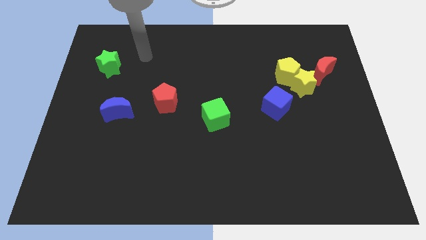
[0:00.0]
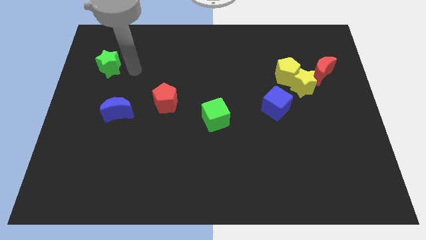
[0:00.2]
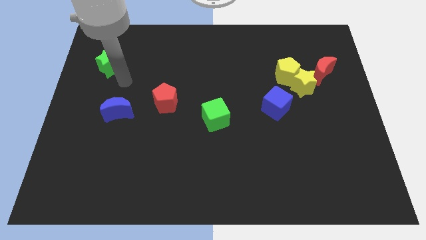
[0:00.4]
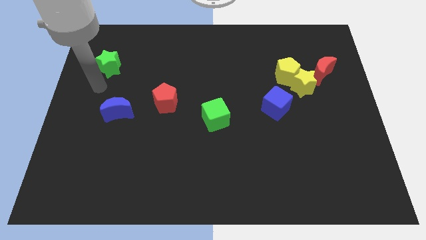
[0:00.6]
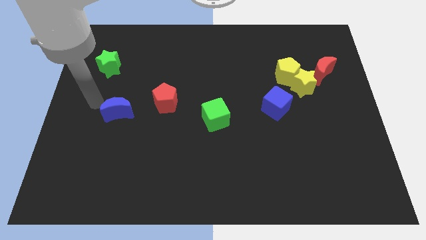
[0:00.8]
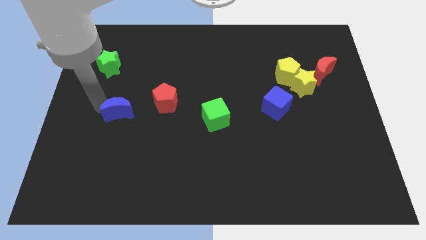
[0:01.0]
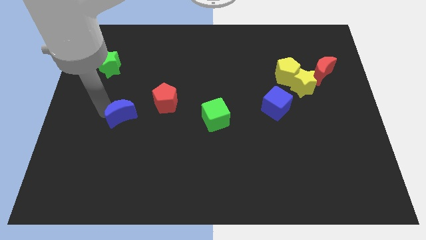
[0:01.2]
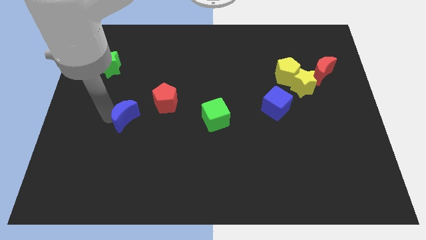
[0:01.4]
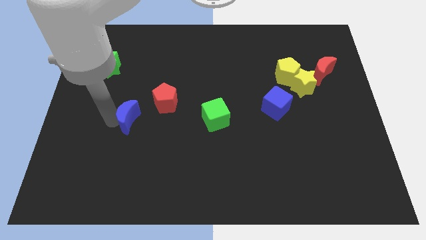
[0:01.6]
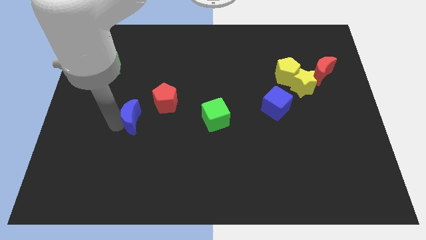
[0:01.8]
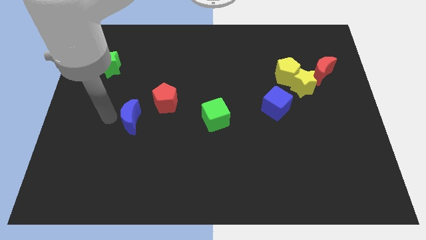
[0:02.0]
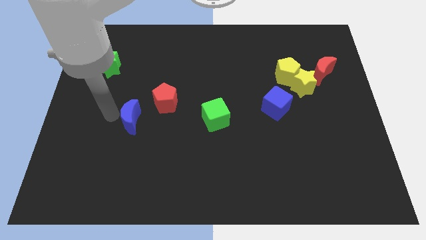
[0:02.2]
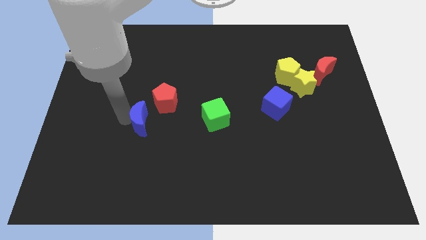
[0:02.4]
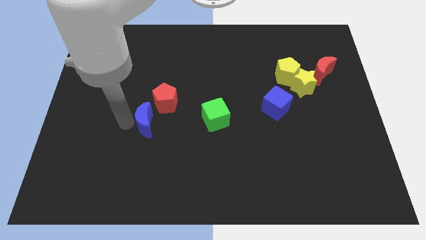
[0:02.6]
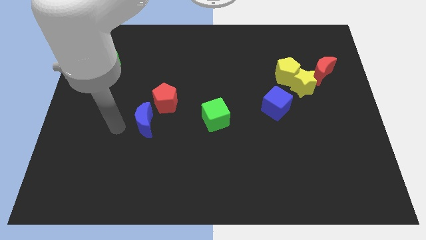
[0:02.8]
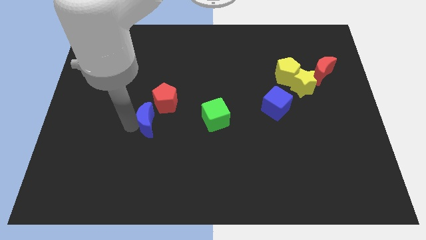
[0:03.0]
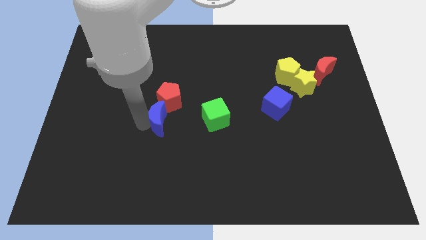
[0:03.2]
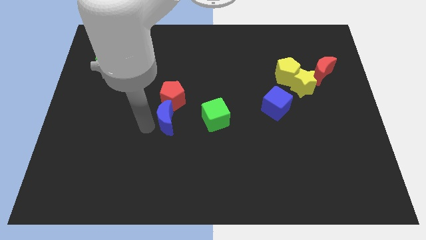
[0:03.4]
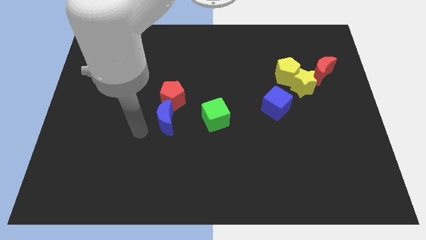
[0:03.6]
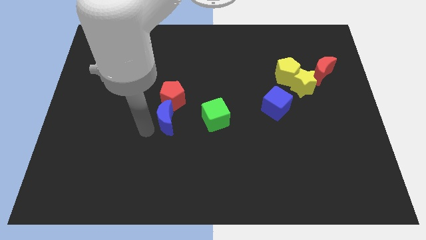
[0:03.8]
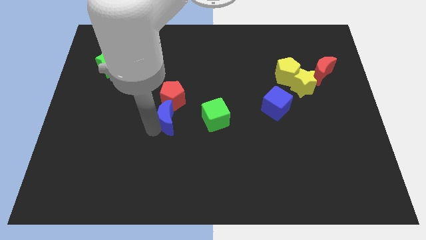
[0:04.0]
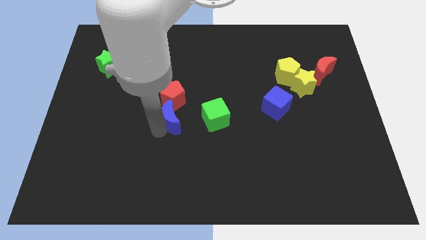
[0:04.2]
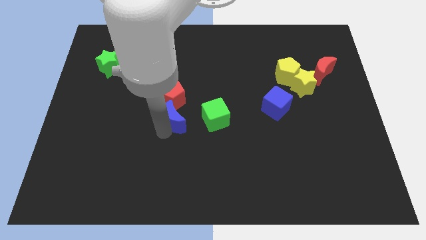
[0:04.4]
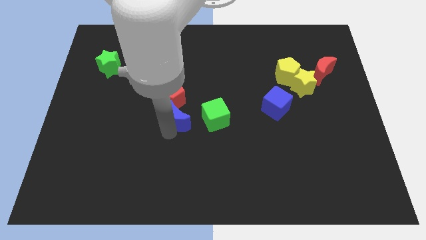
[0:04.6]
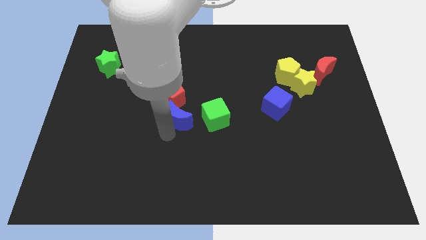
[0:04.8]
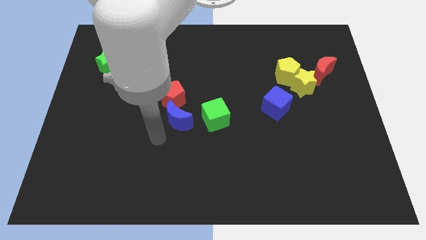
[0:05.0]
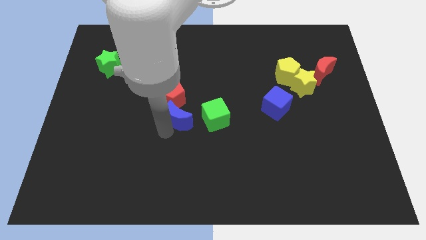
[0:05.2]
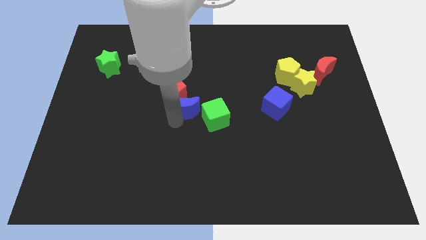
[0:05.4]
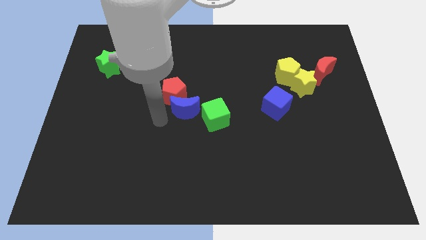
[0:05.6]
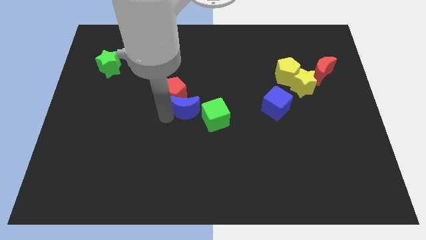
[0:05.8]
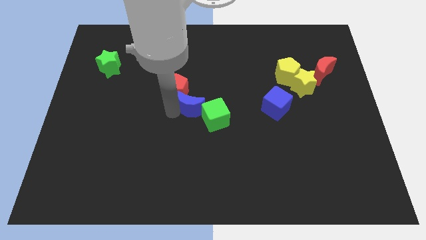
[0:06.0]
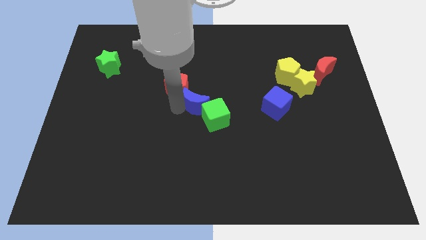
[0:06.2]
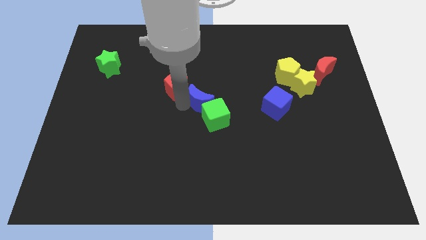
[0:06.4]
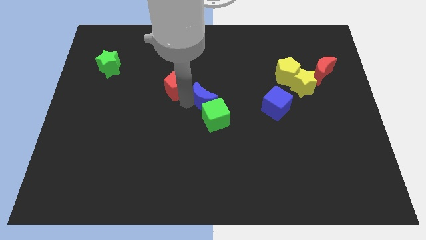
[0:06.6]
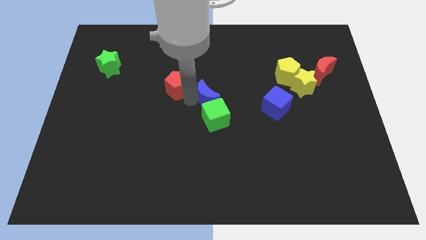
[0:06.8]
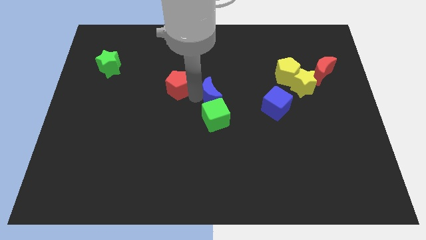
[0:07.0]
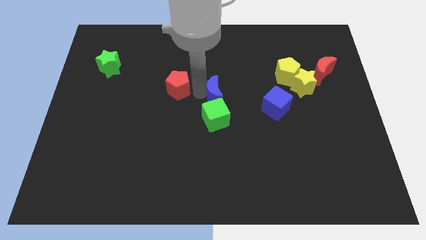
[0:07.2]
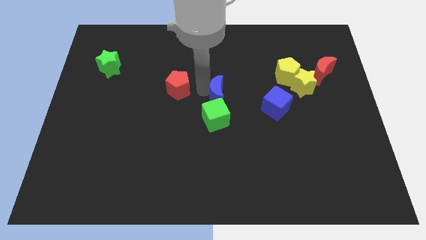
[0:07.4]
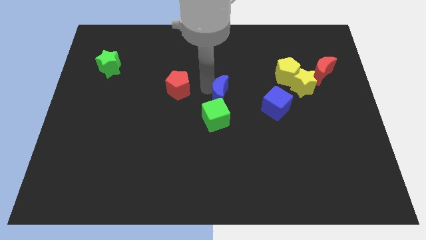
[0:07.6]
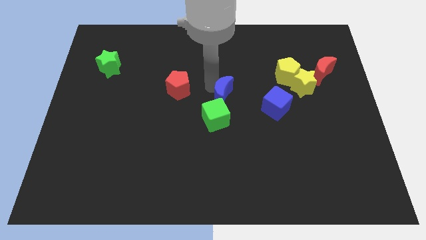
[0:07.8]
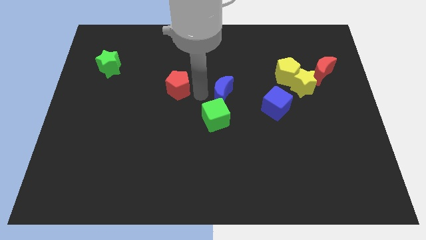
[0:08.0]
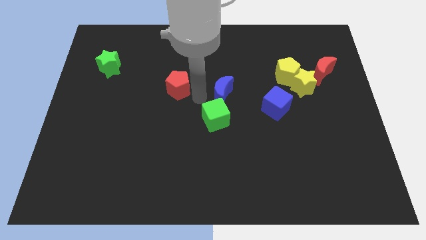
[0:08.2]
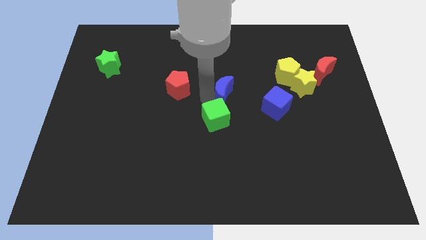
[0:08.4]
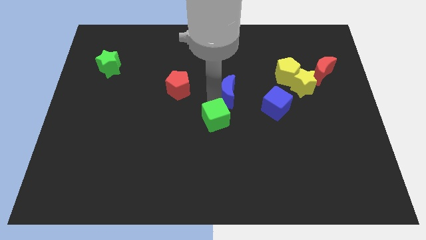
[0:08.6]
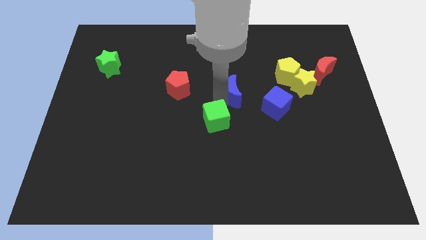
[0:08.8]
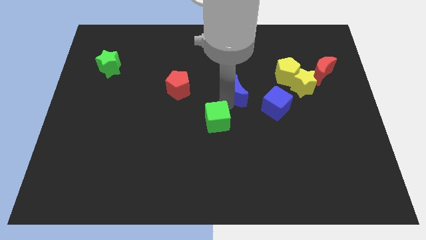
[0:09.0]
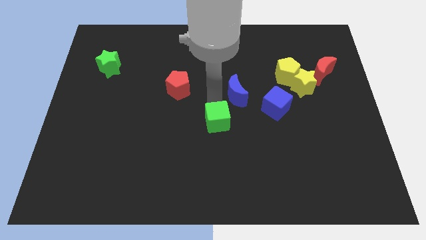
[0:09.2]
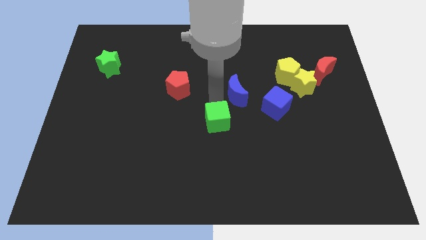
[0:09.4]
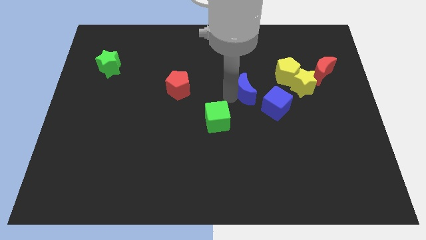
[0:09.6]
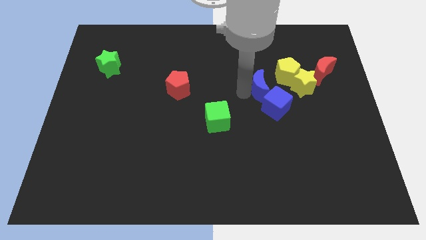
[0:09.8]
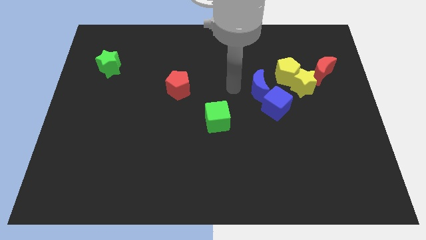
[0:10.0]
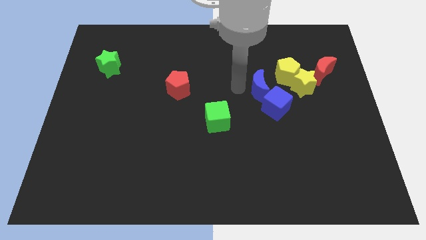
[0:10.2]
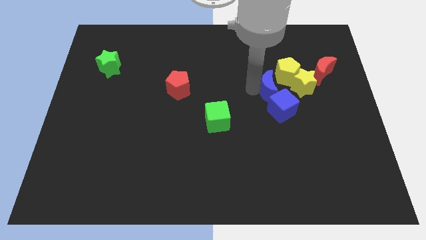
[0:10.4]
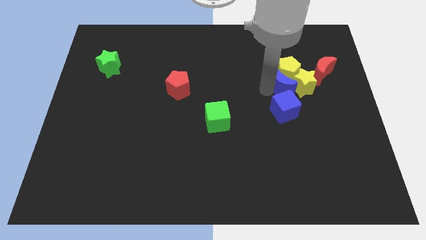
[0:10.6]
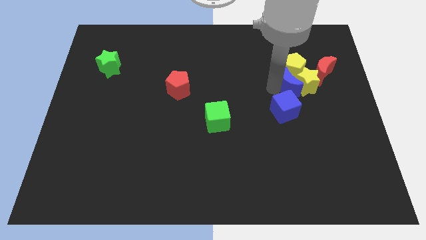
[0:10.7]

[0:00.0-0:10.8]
put the blue moon to the bottom left side of the red moon
